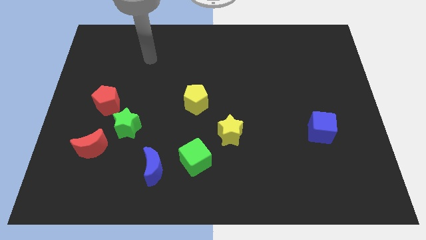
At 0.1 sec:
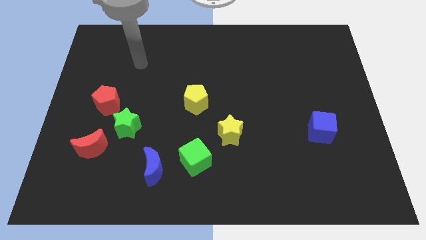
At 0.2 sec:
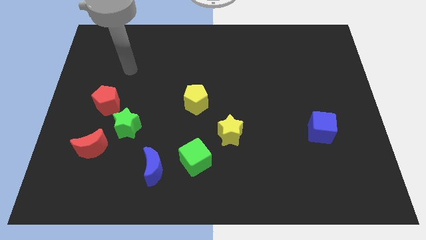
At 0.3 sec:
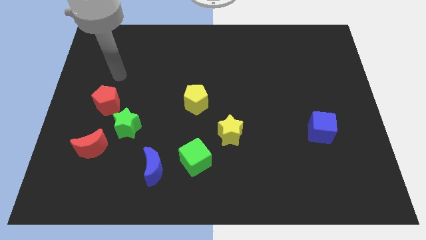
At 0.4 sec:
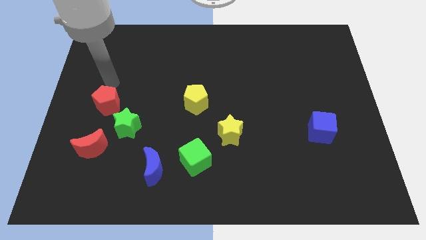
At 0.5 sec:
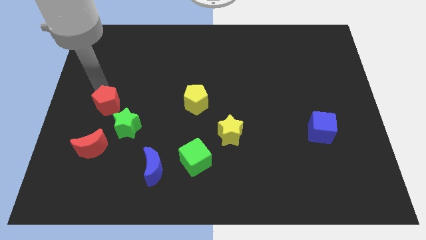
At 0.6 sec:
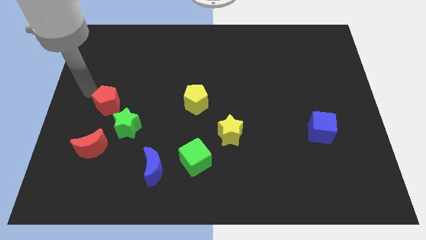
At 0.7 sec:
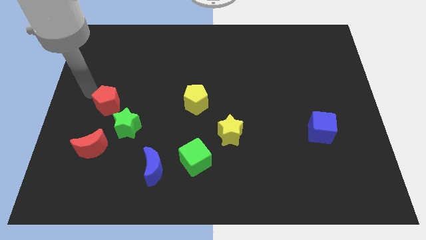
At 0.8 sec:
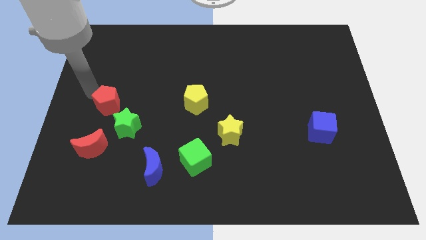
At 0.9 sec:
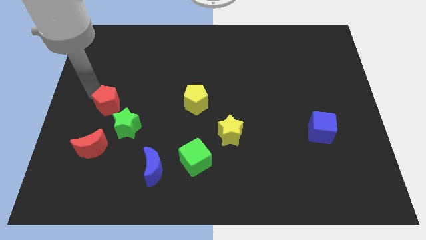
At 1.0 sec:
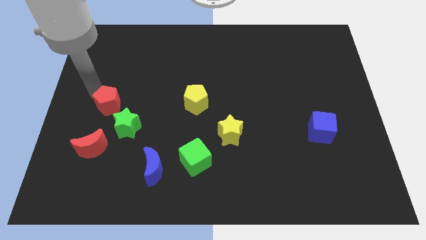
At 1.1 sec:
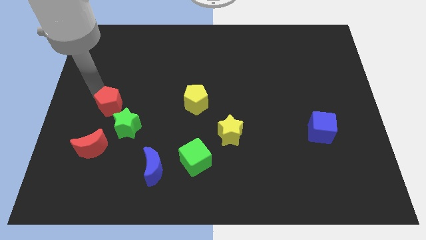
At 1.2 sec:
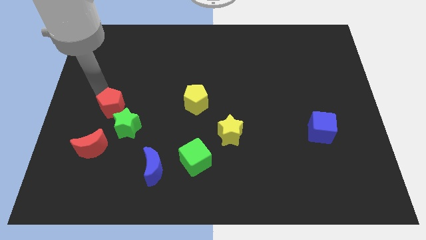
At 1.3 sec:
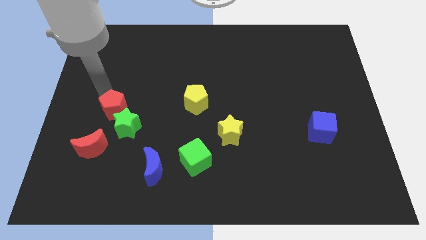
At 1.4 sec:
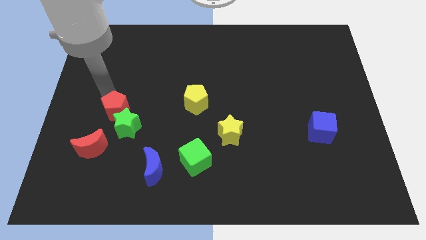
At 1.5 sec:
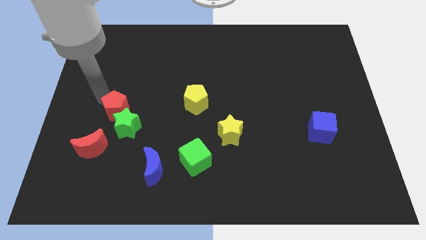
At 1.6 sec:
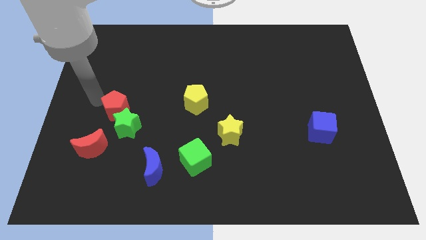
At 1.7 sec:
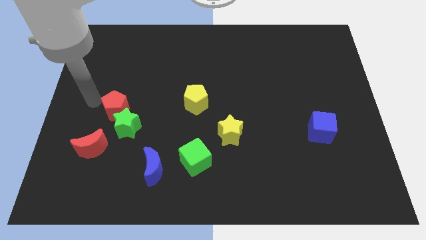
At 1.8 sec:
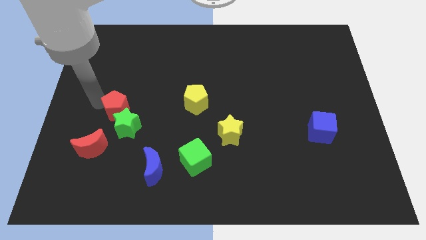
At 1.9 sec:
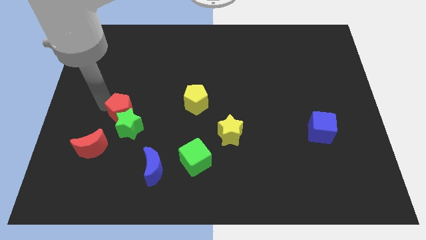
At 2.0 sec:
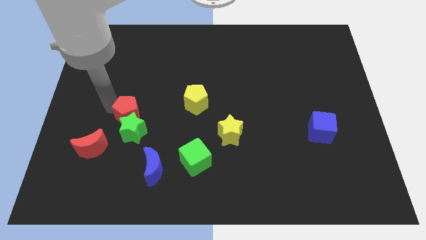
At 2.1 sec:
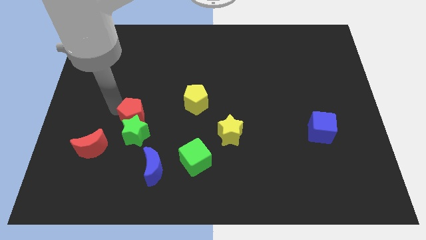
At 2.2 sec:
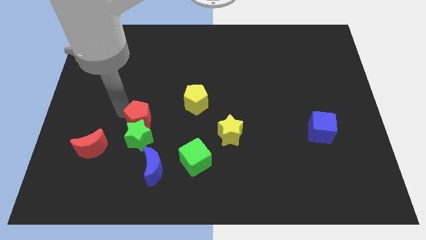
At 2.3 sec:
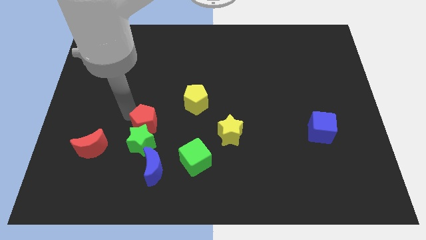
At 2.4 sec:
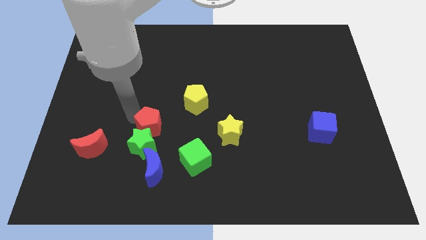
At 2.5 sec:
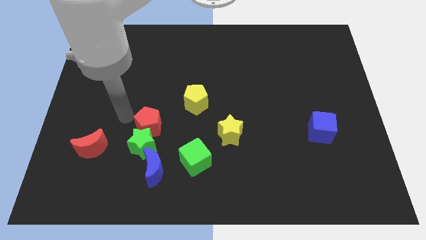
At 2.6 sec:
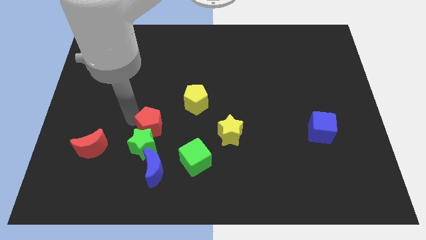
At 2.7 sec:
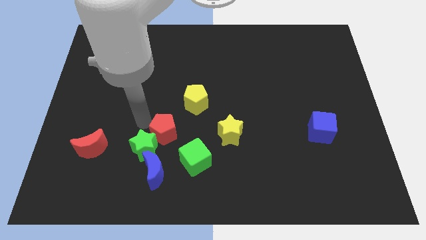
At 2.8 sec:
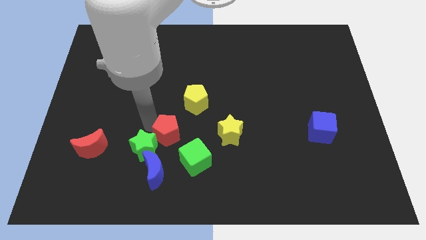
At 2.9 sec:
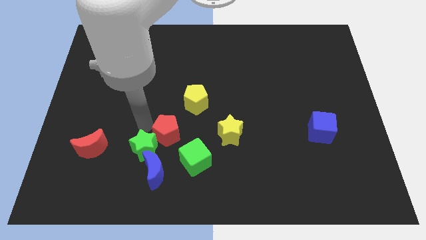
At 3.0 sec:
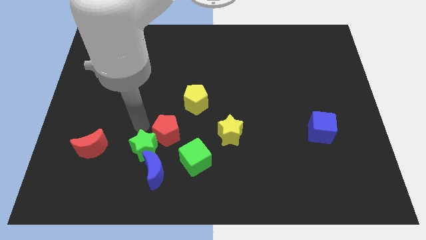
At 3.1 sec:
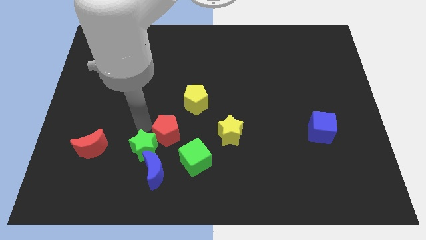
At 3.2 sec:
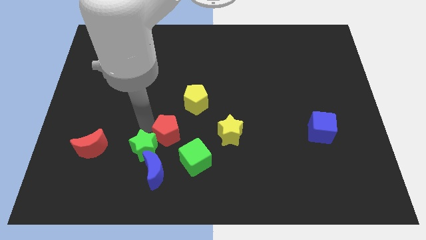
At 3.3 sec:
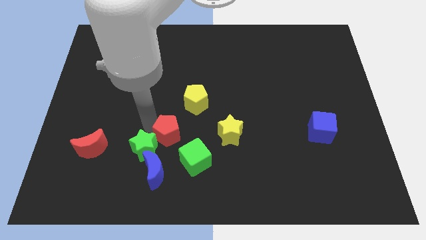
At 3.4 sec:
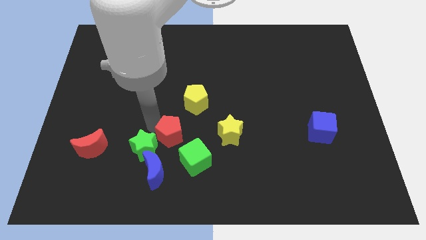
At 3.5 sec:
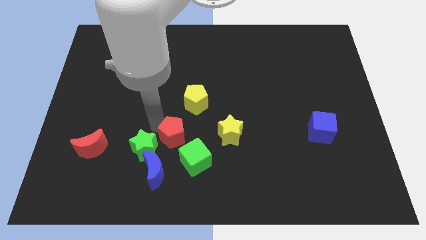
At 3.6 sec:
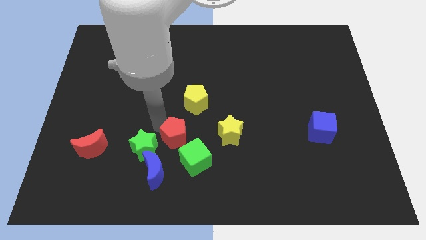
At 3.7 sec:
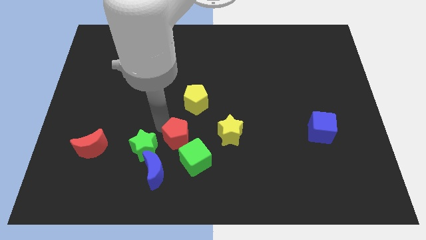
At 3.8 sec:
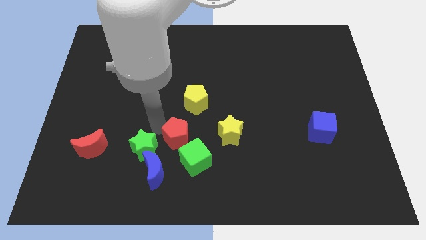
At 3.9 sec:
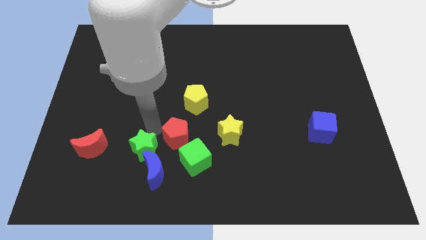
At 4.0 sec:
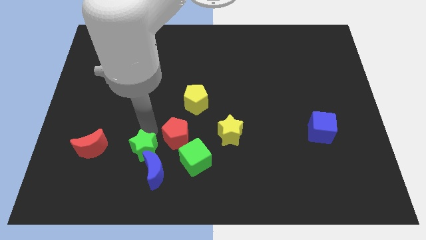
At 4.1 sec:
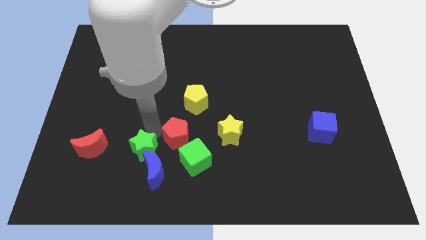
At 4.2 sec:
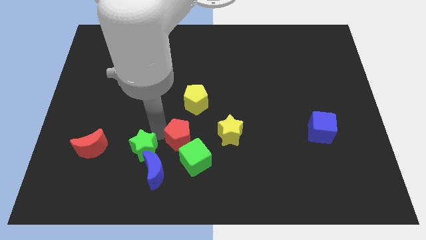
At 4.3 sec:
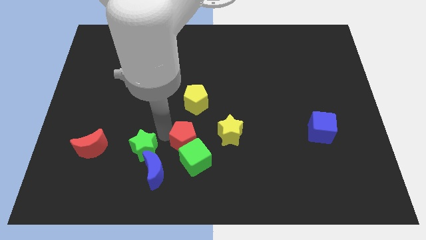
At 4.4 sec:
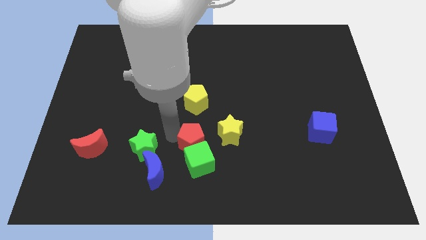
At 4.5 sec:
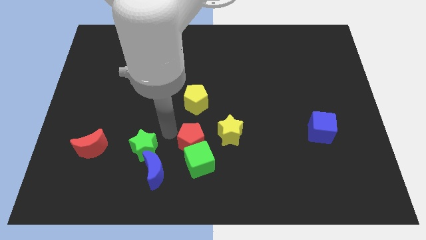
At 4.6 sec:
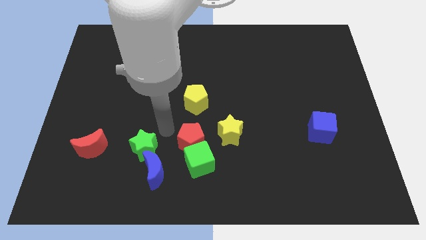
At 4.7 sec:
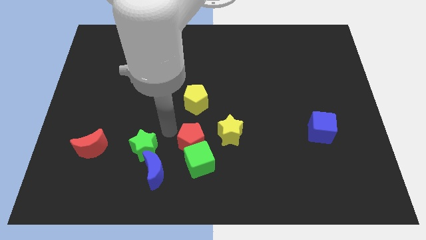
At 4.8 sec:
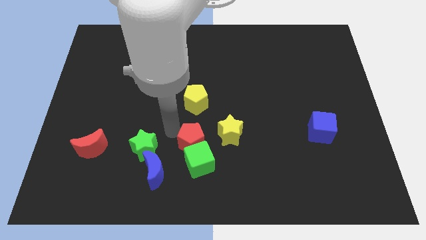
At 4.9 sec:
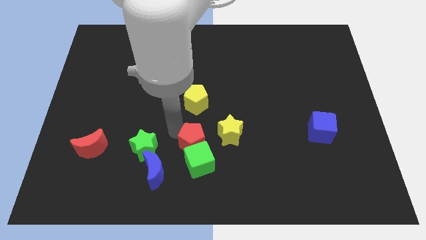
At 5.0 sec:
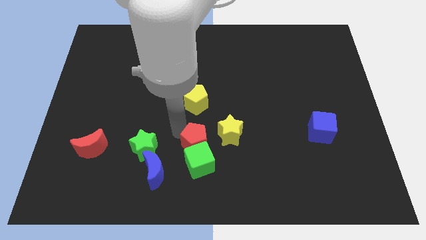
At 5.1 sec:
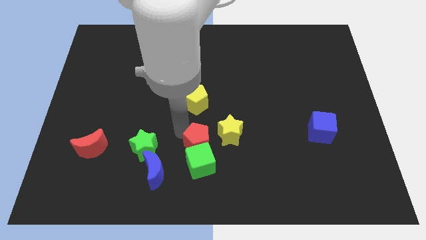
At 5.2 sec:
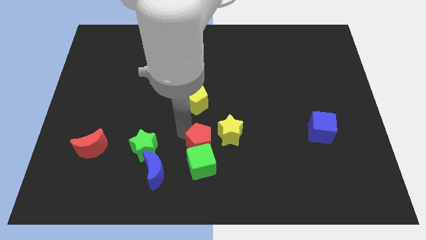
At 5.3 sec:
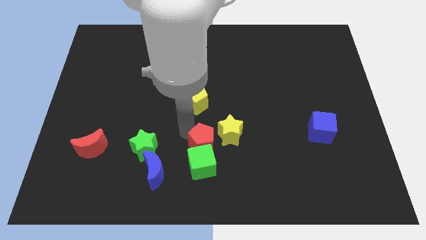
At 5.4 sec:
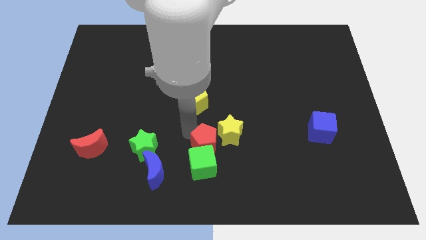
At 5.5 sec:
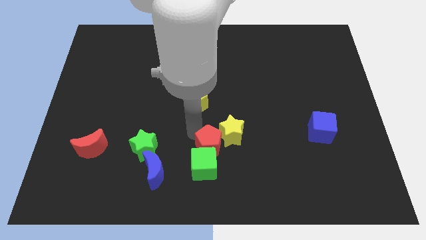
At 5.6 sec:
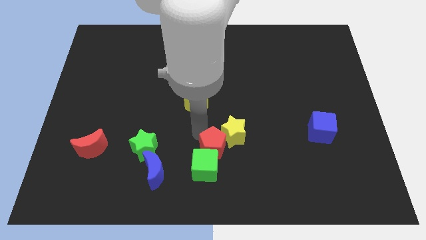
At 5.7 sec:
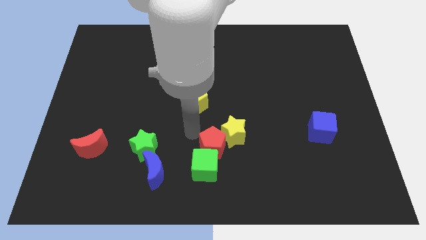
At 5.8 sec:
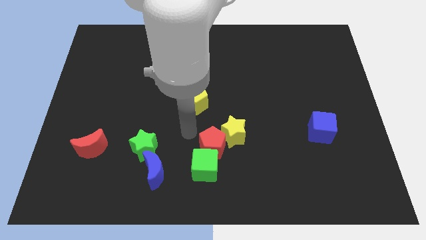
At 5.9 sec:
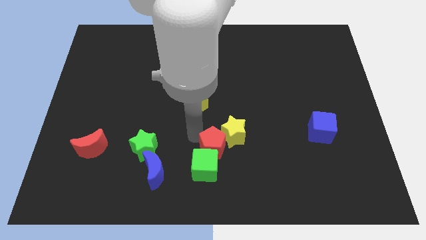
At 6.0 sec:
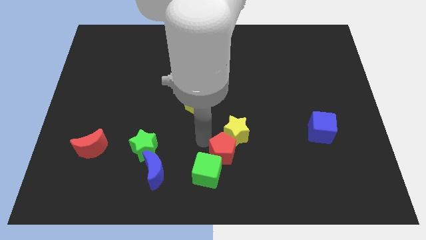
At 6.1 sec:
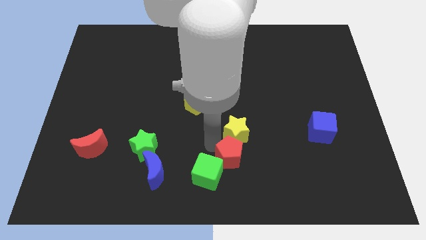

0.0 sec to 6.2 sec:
move the red pentagon just right of the green cube

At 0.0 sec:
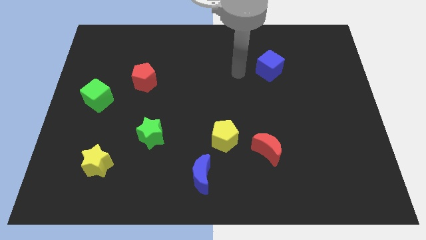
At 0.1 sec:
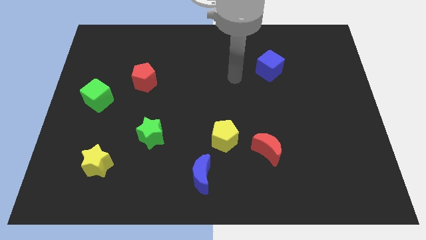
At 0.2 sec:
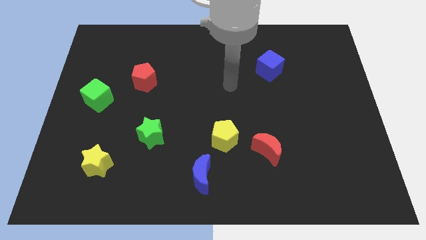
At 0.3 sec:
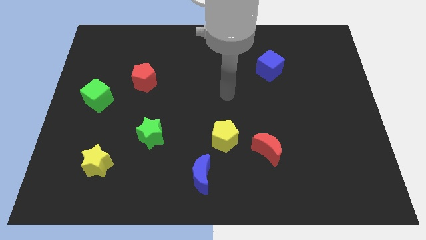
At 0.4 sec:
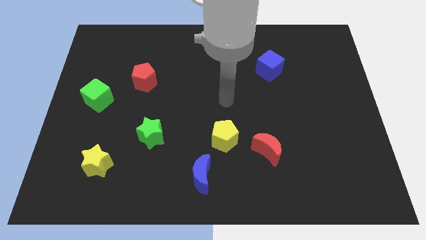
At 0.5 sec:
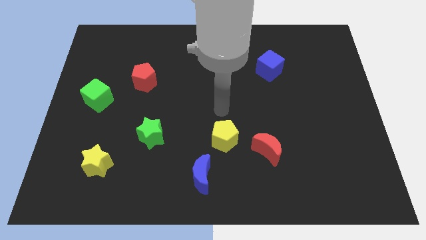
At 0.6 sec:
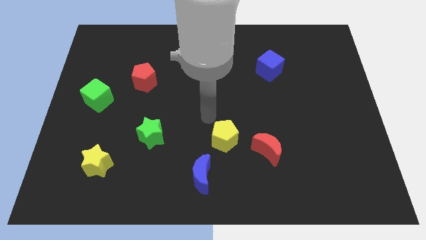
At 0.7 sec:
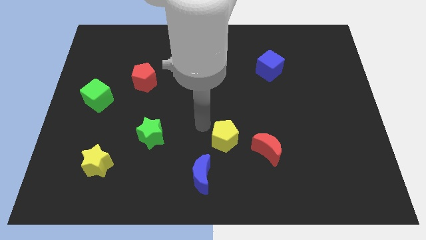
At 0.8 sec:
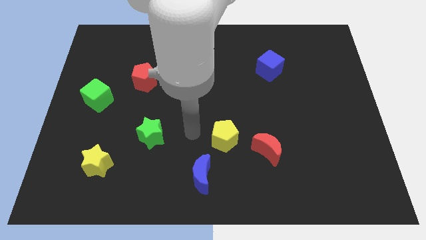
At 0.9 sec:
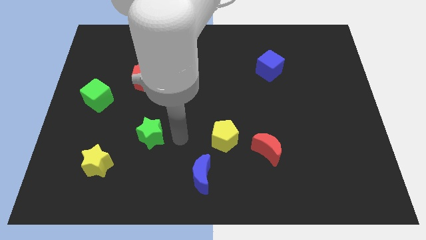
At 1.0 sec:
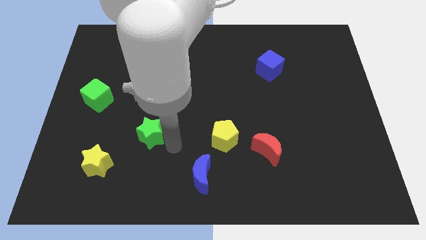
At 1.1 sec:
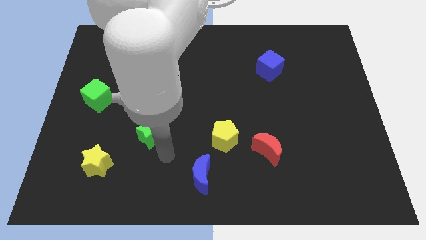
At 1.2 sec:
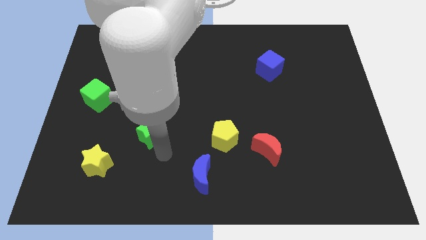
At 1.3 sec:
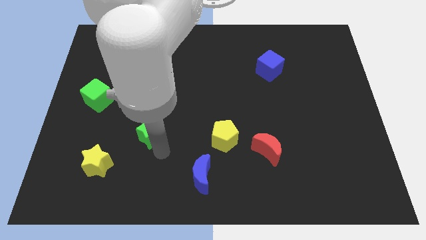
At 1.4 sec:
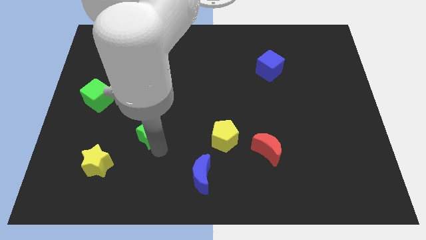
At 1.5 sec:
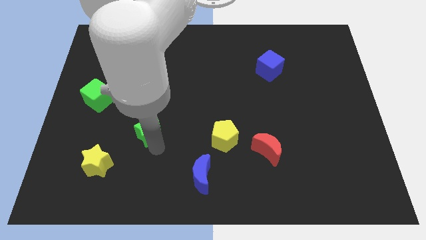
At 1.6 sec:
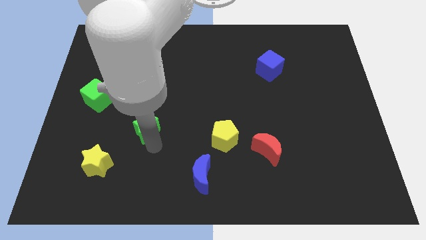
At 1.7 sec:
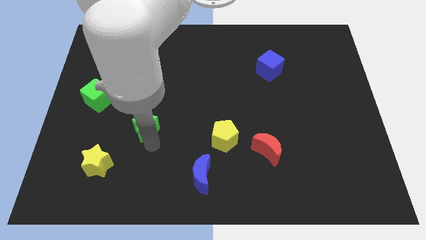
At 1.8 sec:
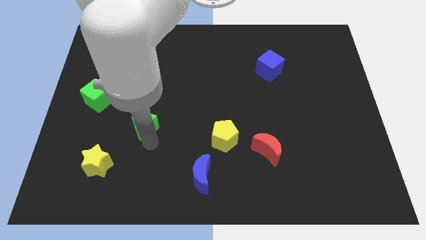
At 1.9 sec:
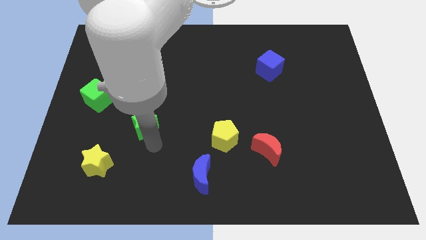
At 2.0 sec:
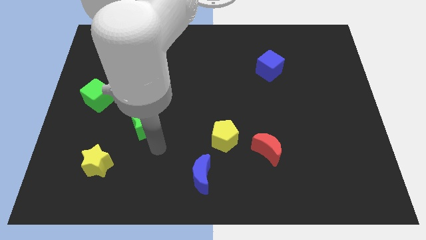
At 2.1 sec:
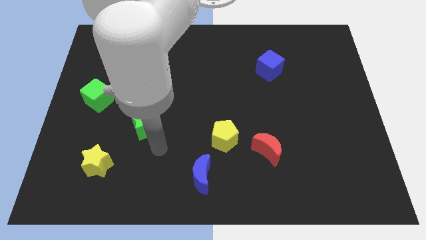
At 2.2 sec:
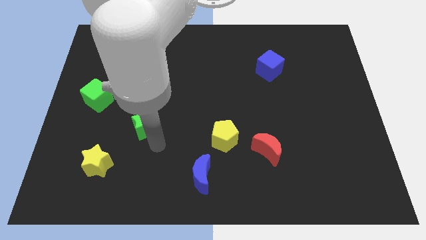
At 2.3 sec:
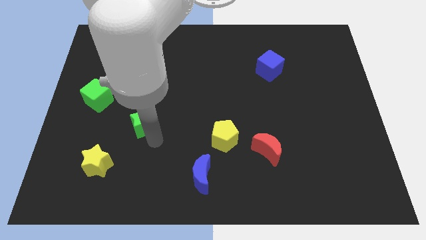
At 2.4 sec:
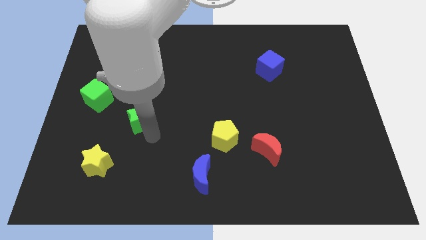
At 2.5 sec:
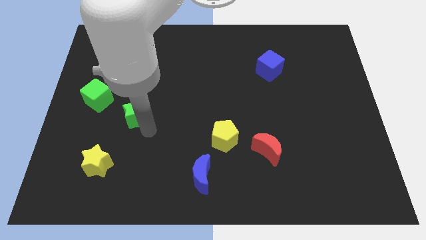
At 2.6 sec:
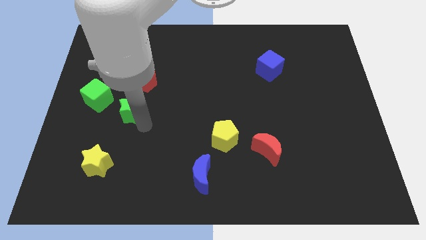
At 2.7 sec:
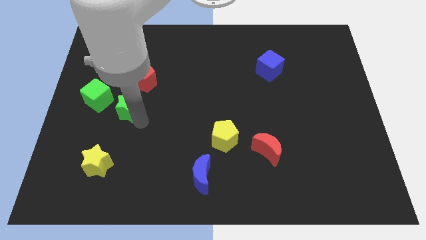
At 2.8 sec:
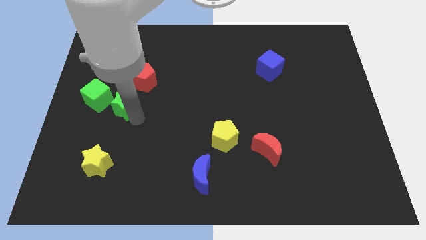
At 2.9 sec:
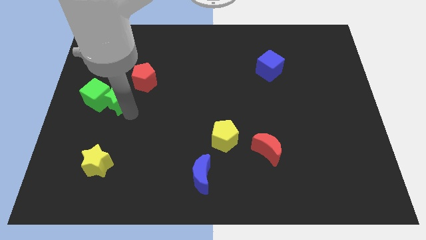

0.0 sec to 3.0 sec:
push the green star to the top right of the green cube
